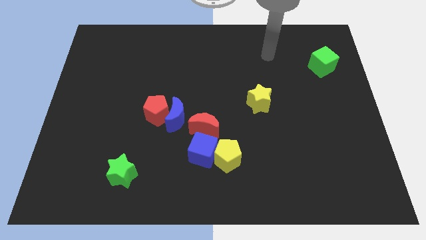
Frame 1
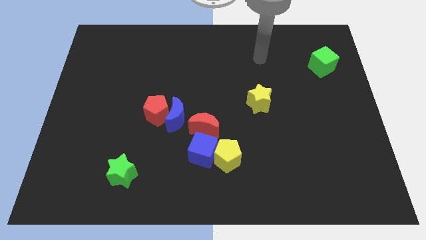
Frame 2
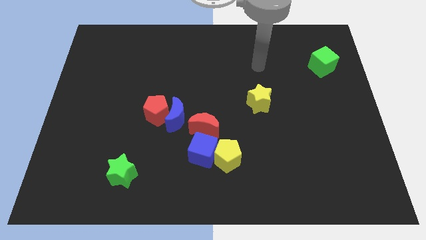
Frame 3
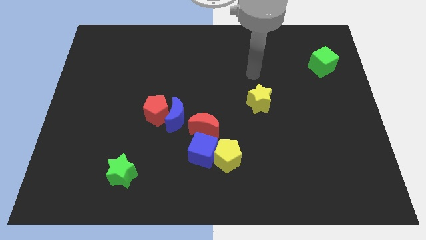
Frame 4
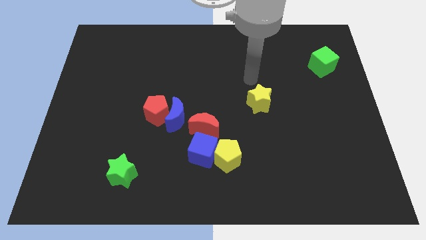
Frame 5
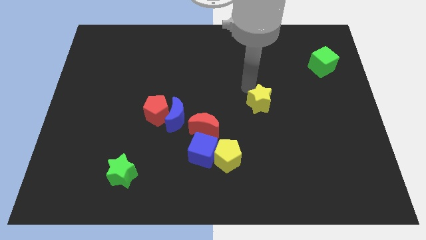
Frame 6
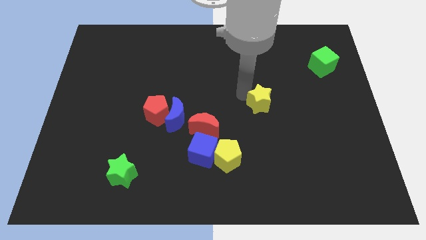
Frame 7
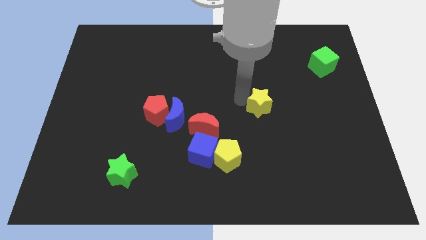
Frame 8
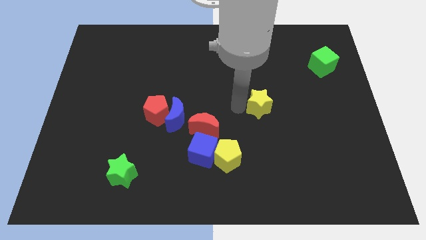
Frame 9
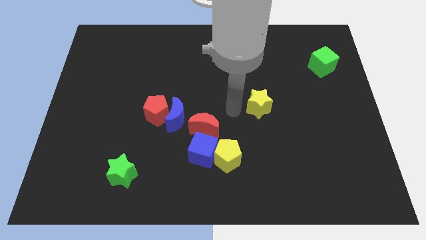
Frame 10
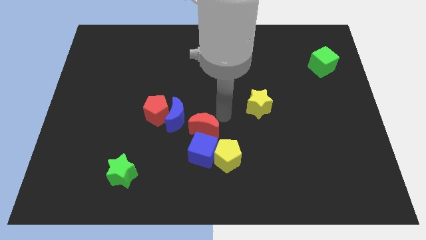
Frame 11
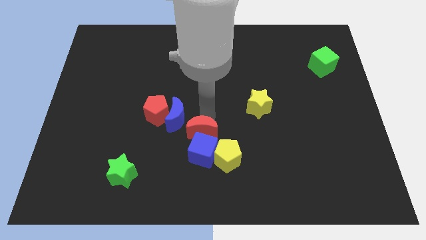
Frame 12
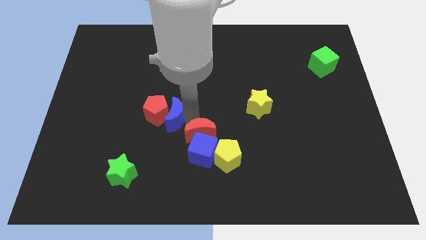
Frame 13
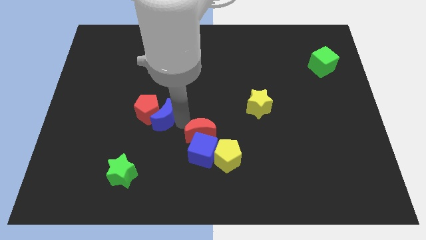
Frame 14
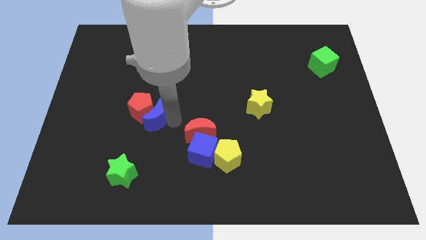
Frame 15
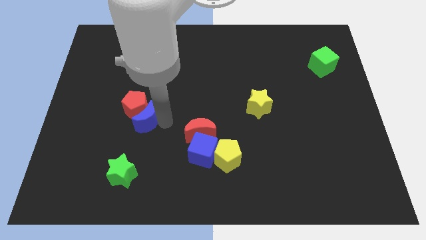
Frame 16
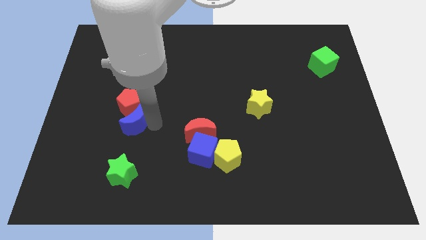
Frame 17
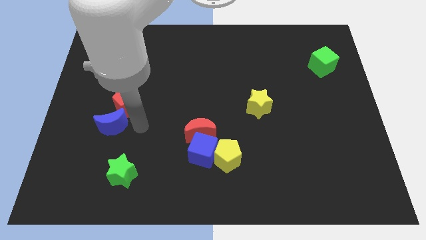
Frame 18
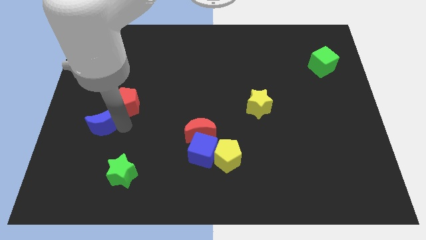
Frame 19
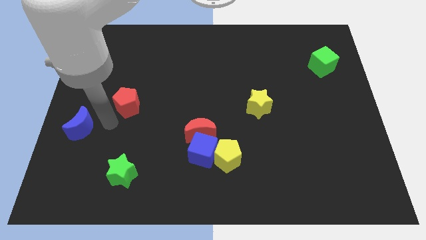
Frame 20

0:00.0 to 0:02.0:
pull the red pentagon apart from the blue moon

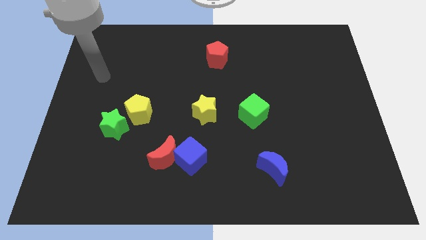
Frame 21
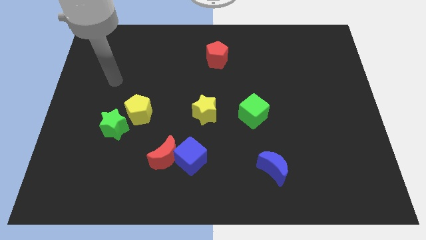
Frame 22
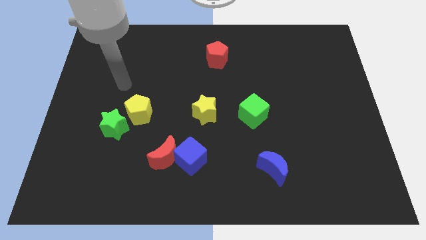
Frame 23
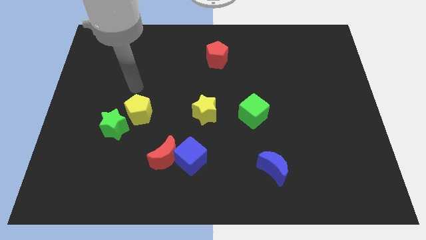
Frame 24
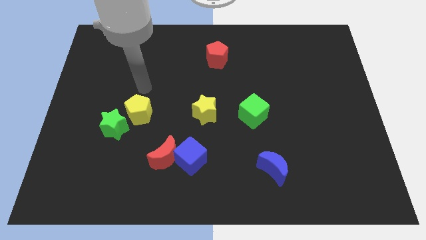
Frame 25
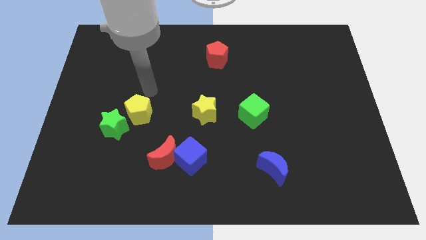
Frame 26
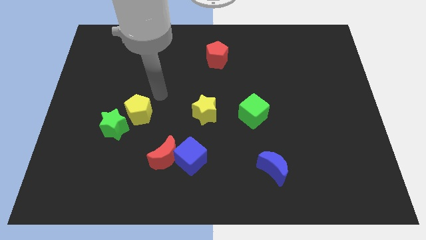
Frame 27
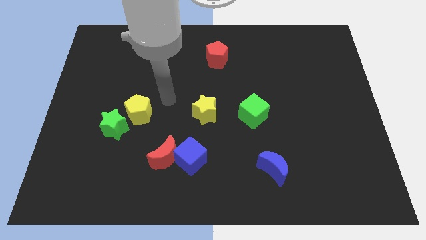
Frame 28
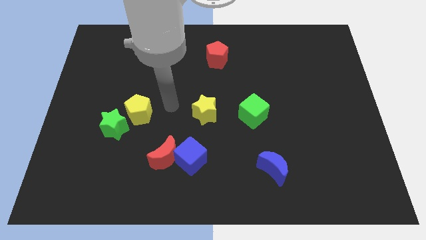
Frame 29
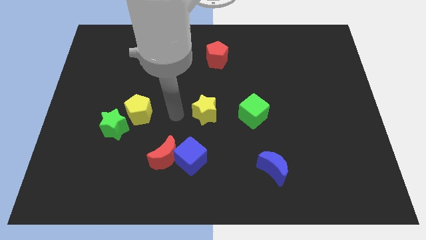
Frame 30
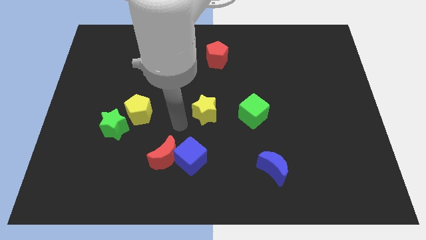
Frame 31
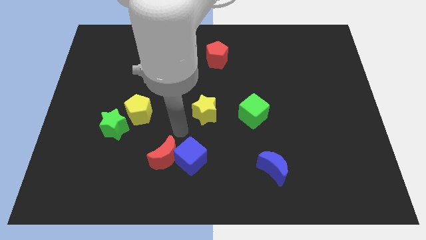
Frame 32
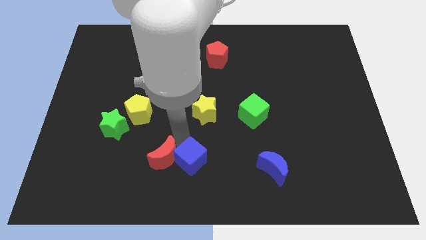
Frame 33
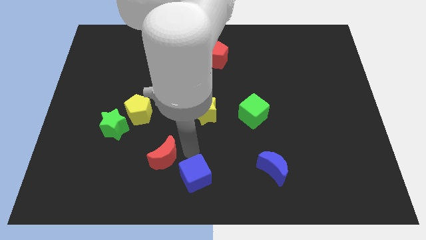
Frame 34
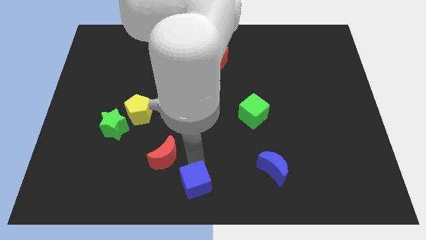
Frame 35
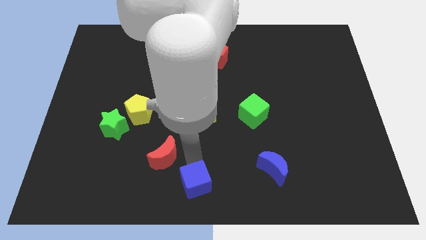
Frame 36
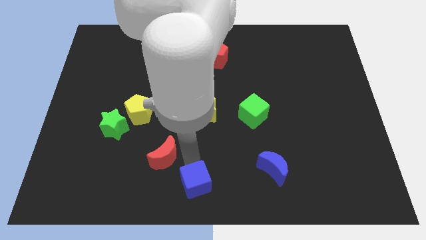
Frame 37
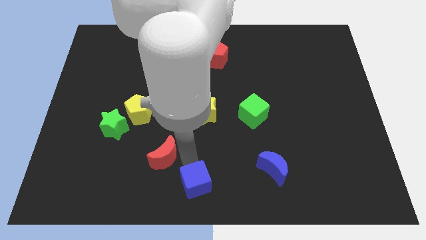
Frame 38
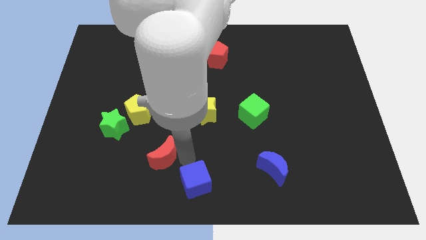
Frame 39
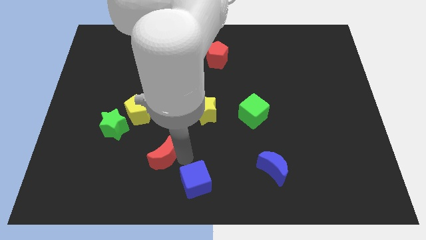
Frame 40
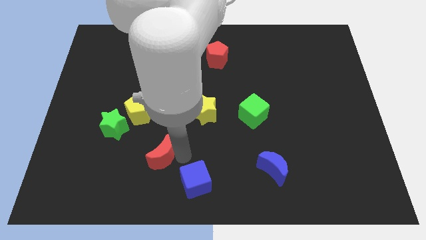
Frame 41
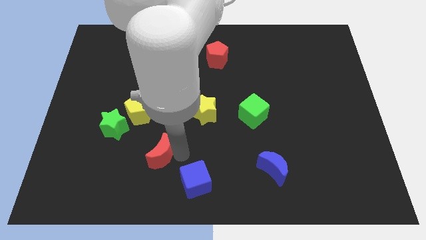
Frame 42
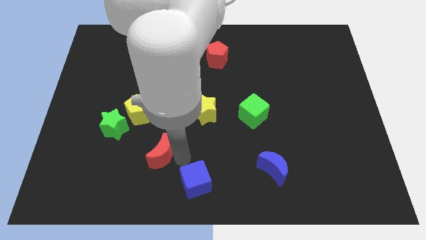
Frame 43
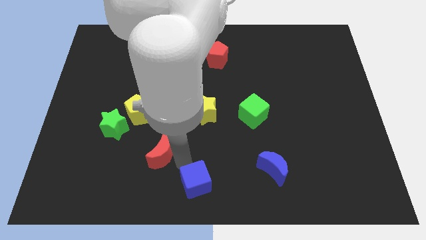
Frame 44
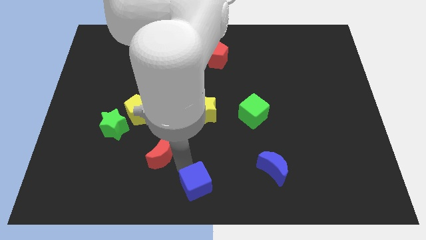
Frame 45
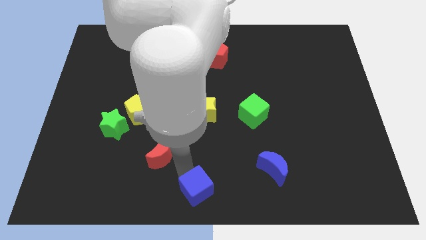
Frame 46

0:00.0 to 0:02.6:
move the red moon away from the blue cube

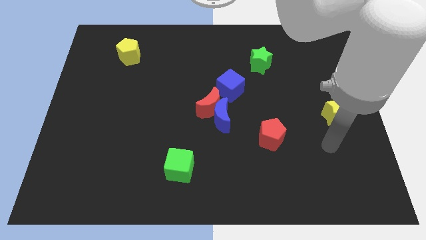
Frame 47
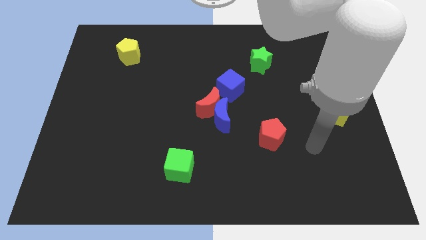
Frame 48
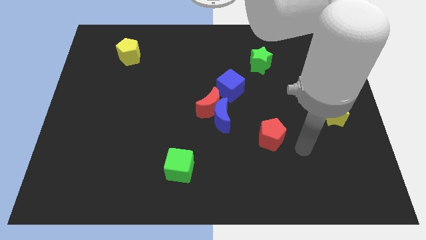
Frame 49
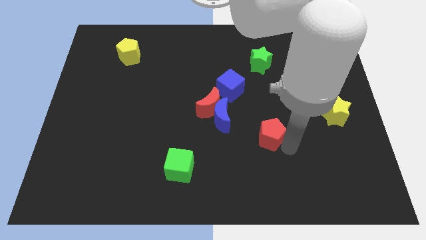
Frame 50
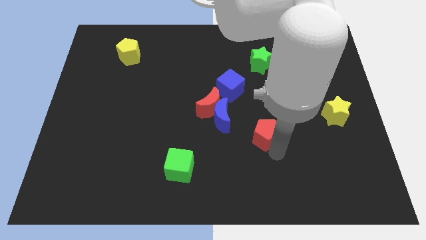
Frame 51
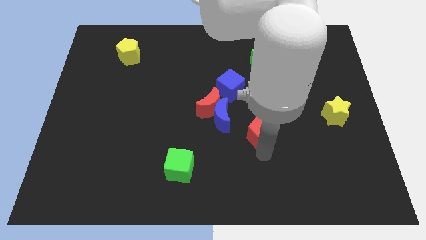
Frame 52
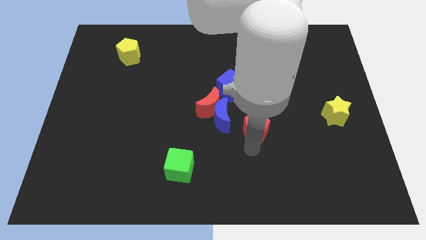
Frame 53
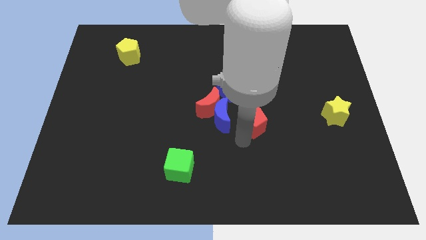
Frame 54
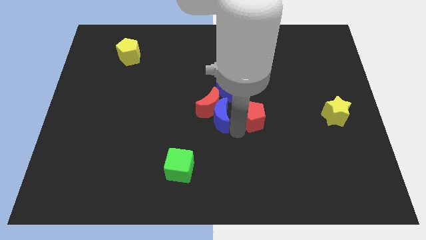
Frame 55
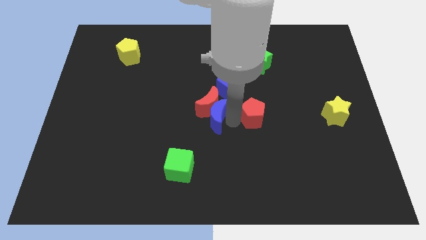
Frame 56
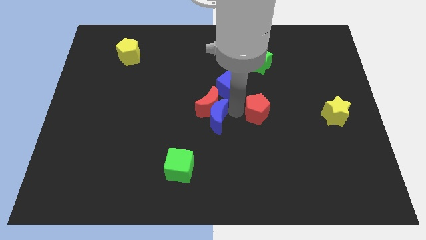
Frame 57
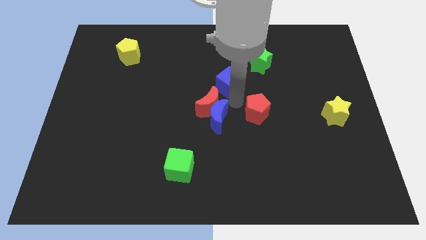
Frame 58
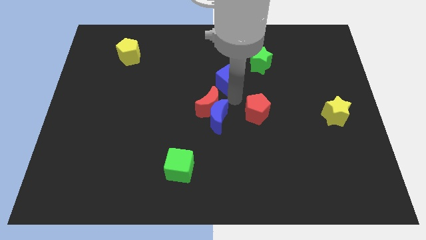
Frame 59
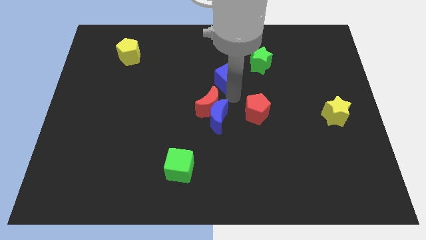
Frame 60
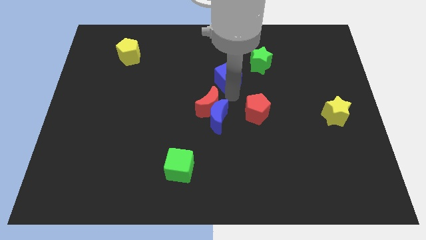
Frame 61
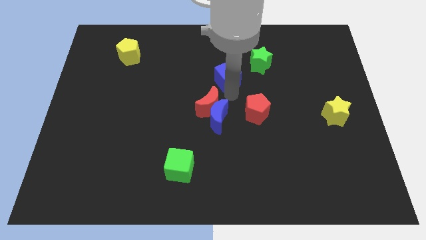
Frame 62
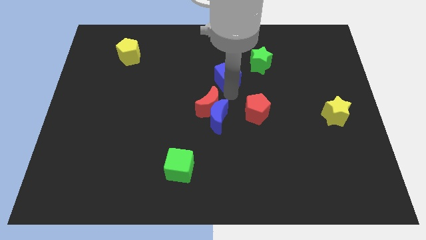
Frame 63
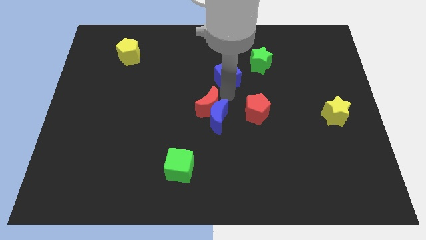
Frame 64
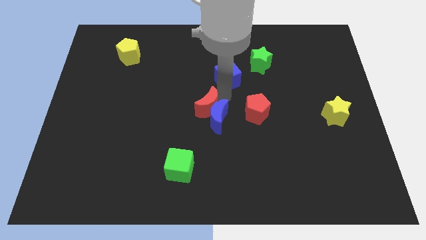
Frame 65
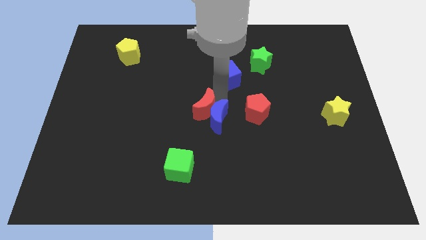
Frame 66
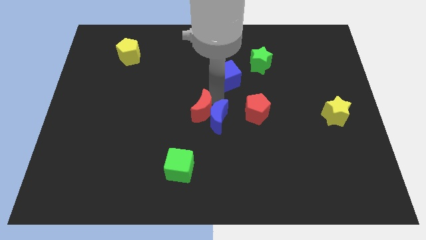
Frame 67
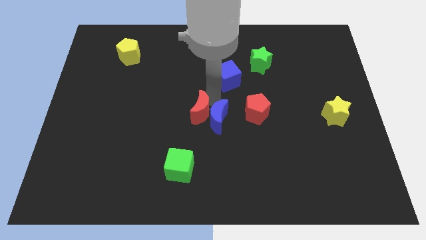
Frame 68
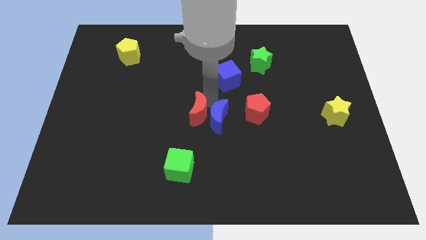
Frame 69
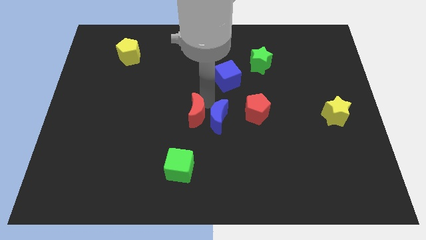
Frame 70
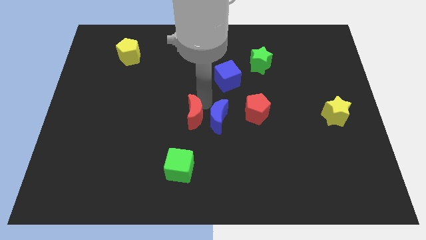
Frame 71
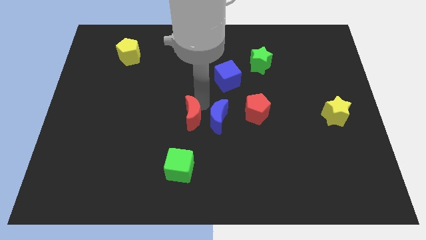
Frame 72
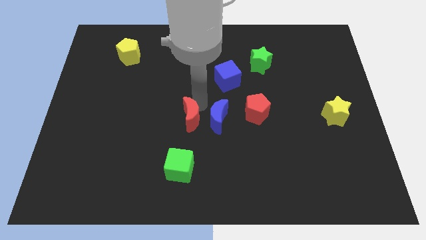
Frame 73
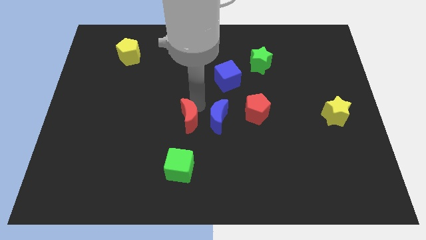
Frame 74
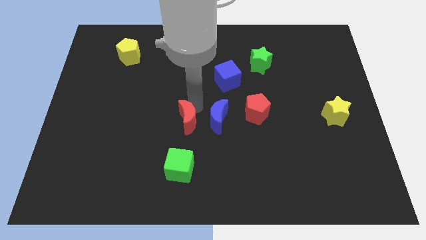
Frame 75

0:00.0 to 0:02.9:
move the red moon away from the blue moon and blue cube

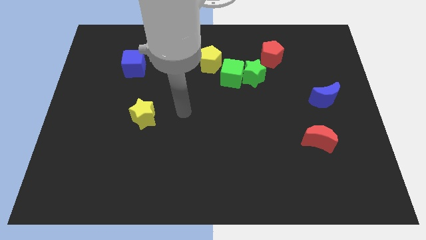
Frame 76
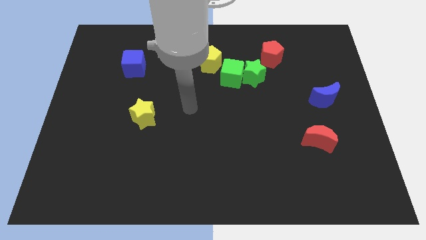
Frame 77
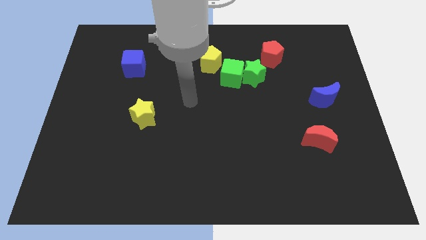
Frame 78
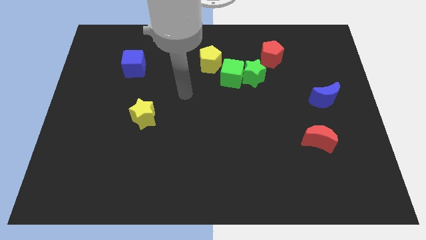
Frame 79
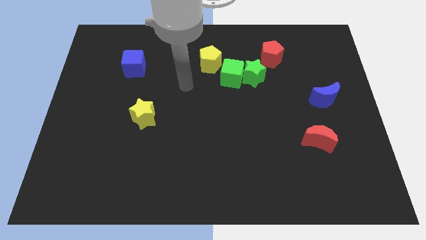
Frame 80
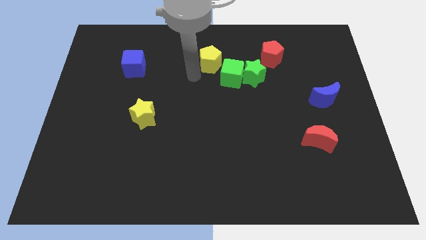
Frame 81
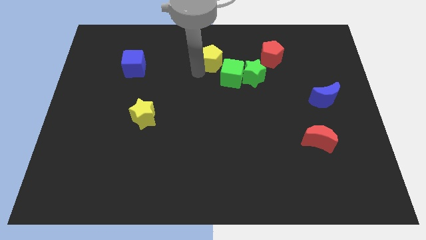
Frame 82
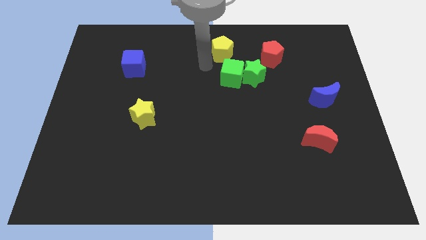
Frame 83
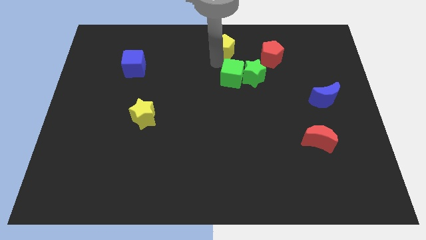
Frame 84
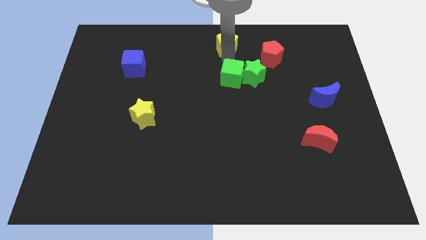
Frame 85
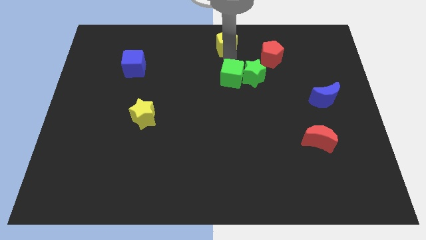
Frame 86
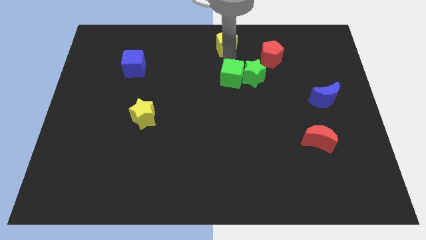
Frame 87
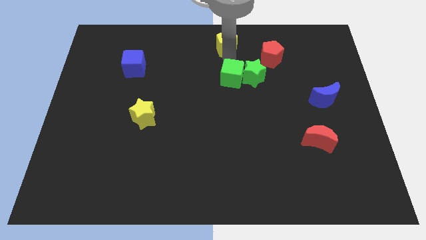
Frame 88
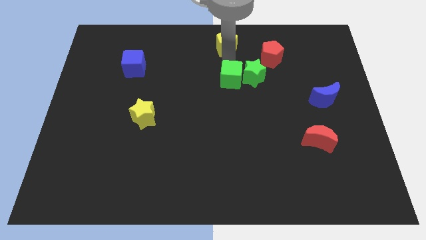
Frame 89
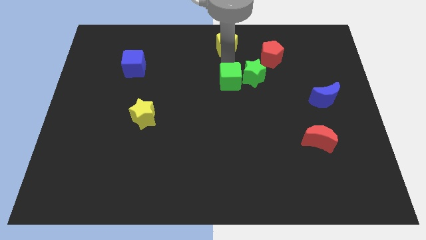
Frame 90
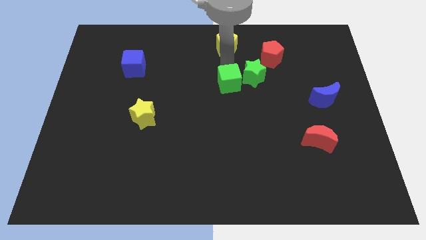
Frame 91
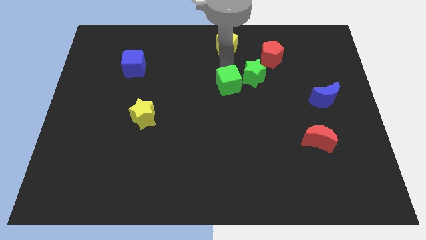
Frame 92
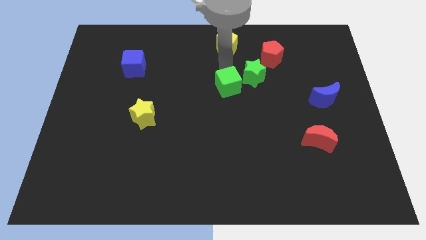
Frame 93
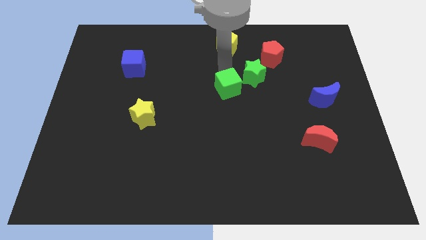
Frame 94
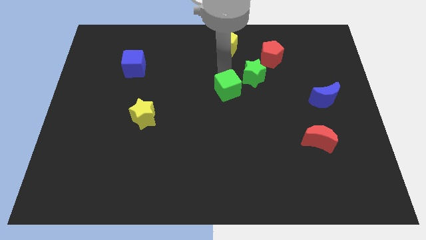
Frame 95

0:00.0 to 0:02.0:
separate the green cube from the green star and yellow pentagon
